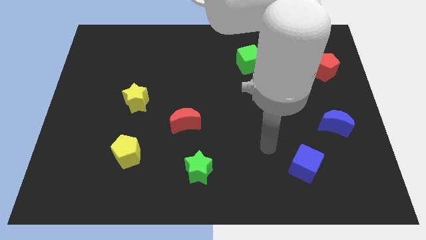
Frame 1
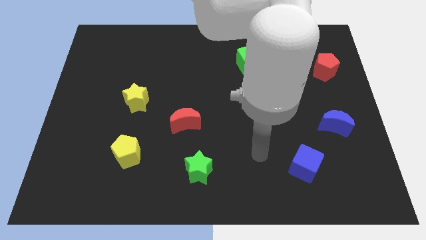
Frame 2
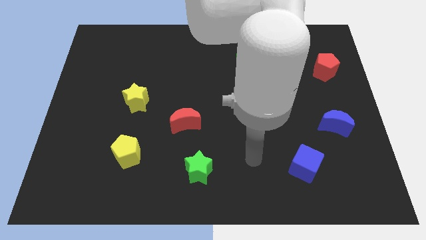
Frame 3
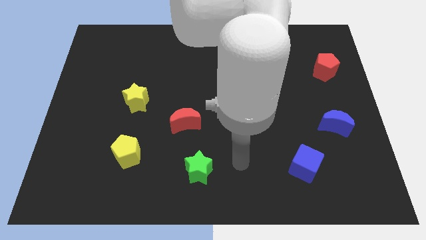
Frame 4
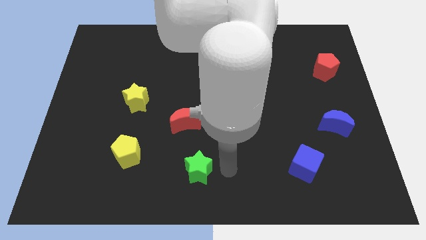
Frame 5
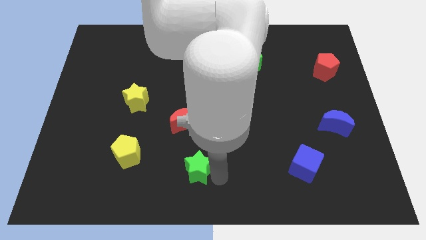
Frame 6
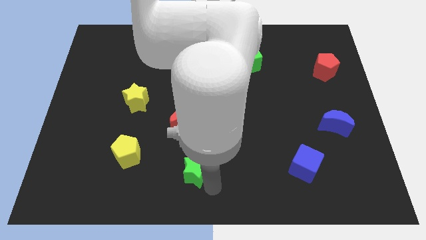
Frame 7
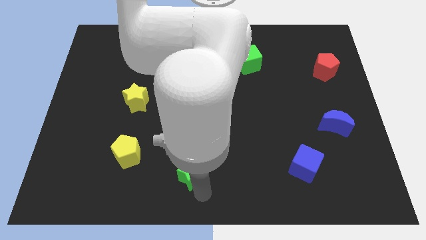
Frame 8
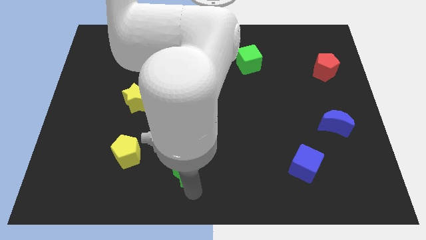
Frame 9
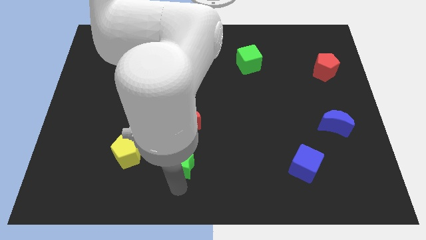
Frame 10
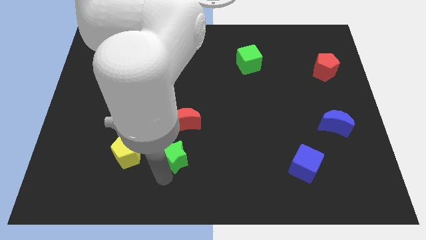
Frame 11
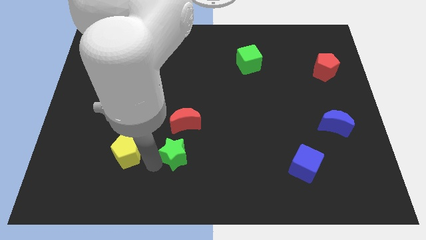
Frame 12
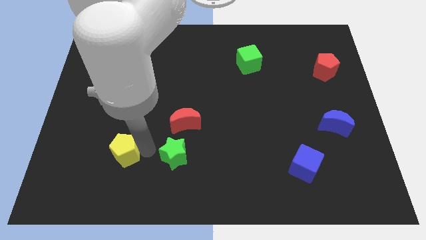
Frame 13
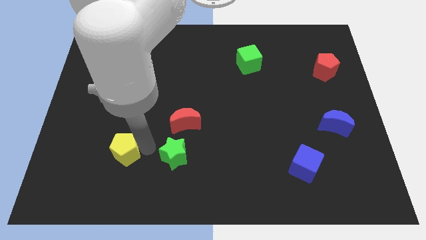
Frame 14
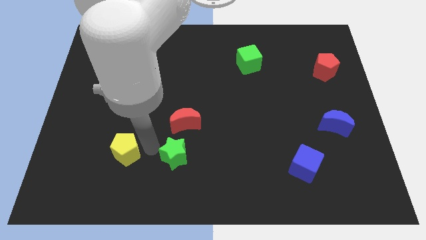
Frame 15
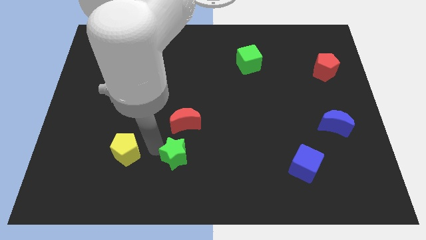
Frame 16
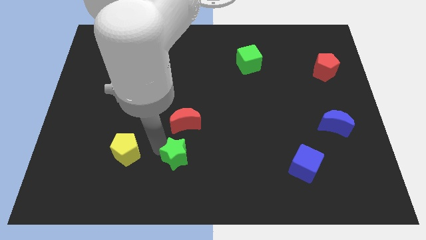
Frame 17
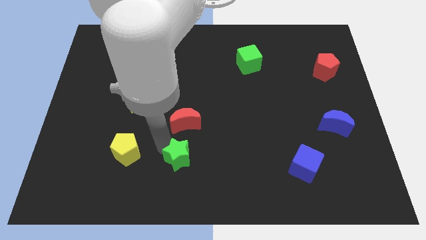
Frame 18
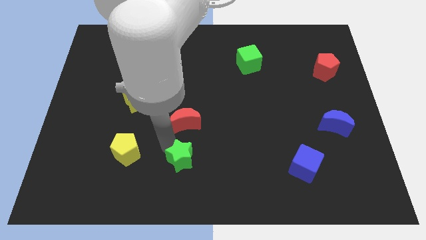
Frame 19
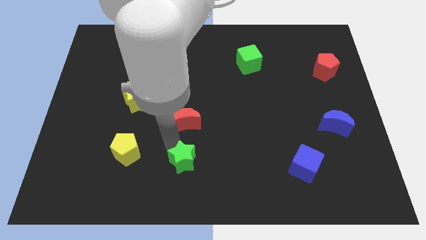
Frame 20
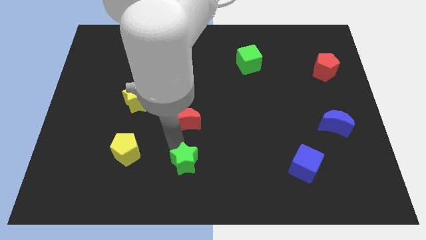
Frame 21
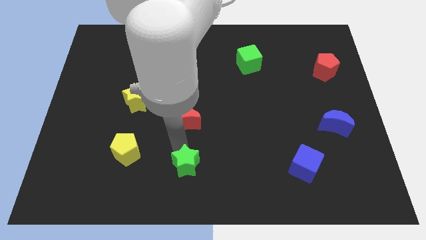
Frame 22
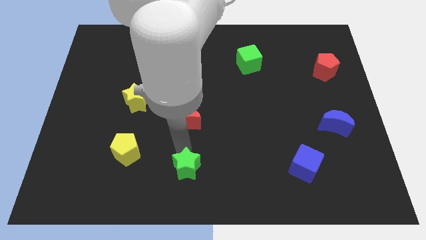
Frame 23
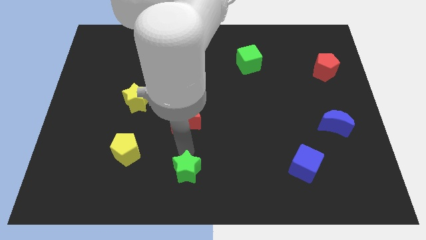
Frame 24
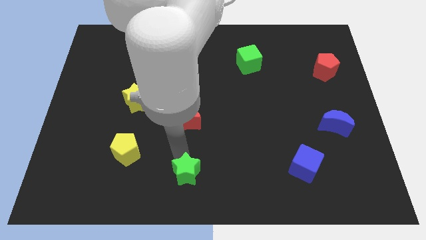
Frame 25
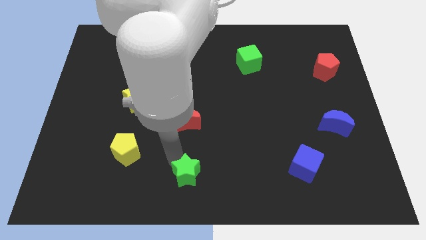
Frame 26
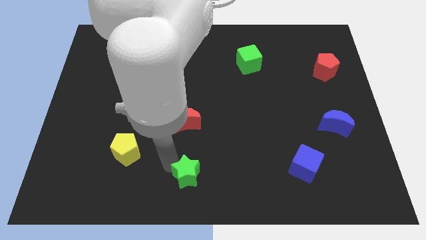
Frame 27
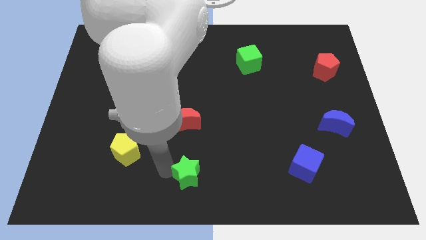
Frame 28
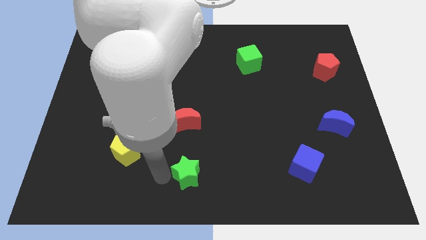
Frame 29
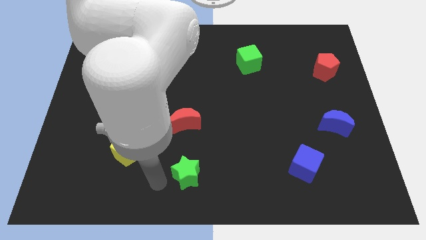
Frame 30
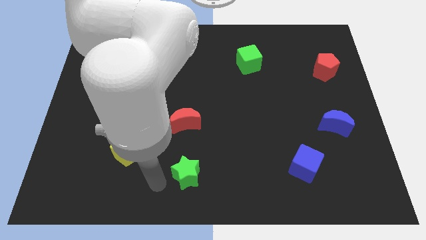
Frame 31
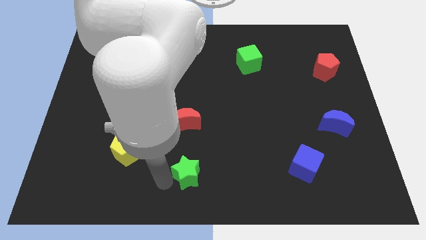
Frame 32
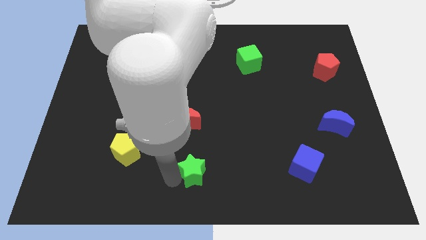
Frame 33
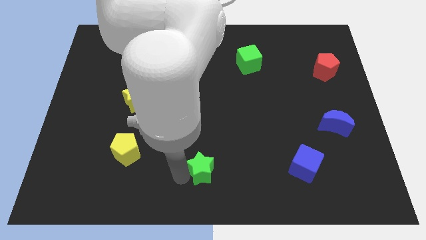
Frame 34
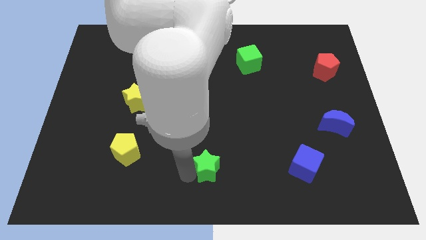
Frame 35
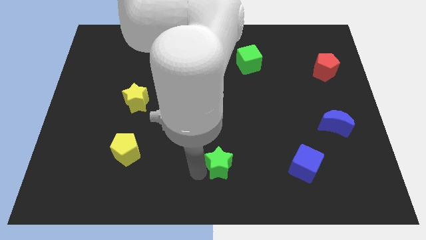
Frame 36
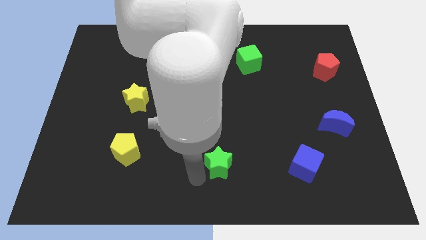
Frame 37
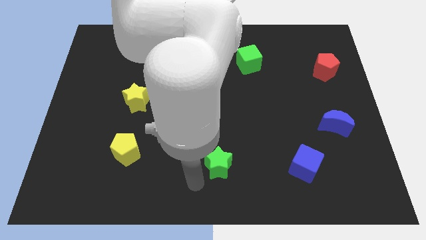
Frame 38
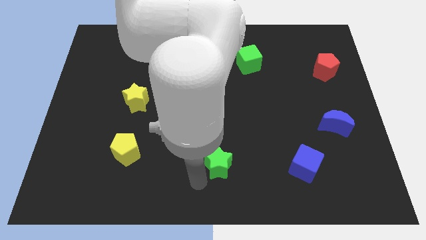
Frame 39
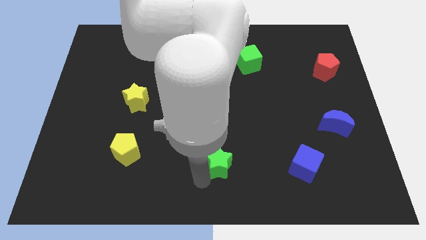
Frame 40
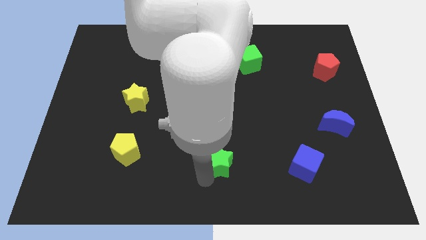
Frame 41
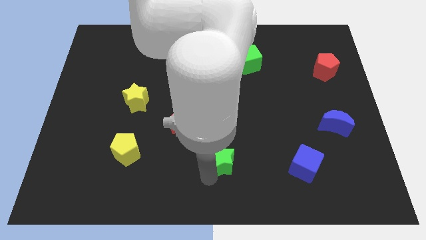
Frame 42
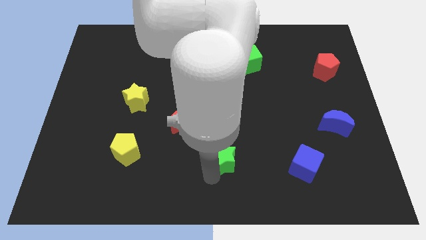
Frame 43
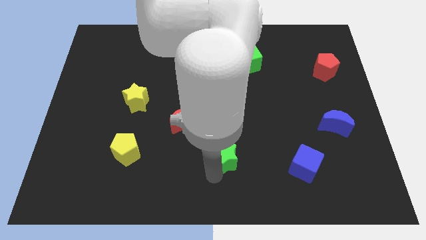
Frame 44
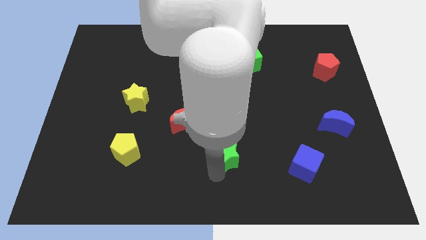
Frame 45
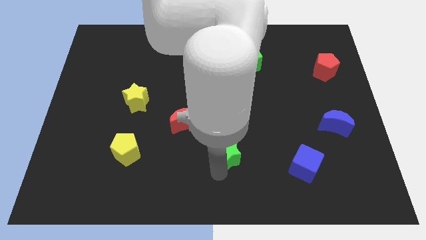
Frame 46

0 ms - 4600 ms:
slightly push the green star diagonally upwards and to the right

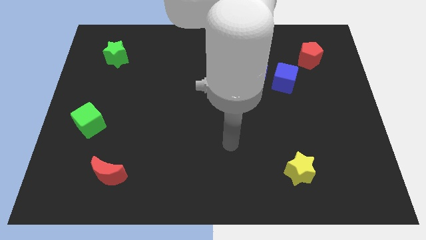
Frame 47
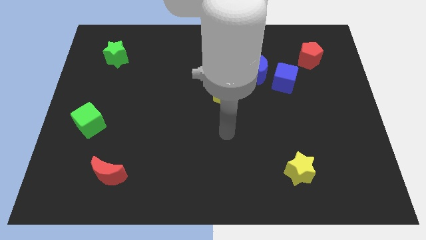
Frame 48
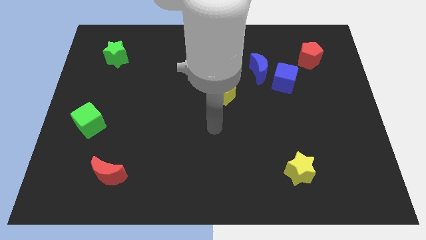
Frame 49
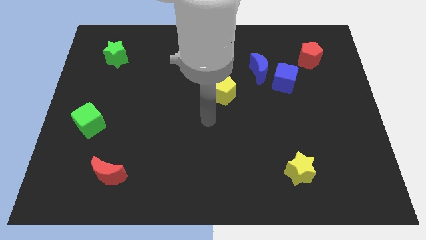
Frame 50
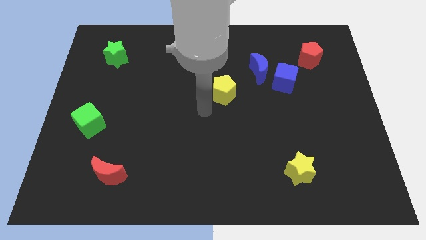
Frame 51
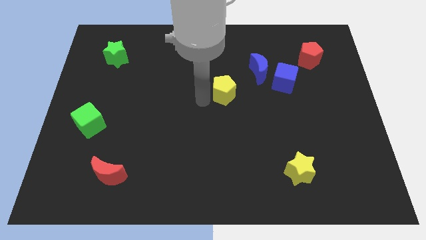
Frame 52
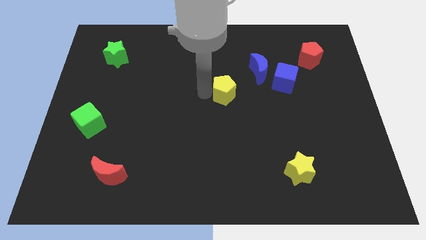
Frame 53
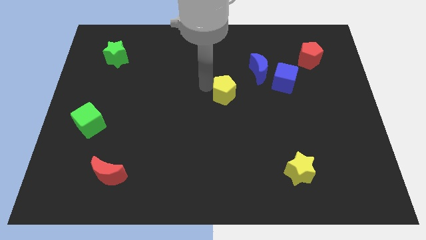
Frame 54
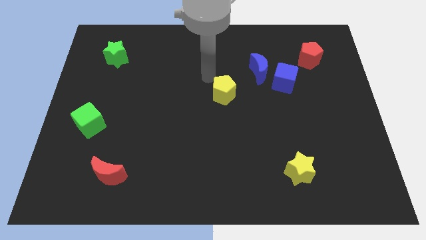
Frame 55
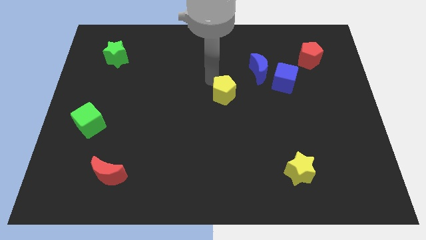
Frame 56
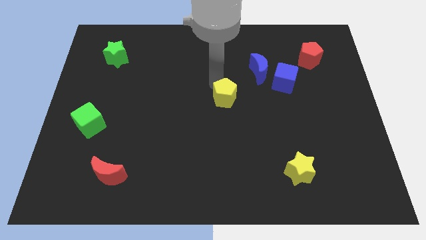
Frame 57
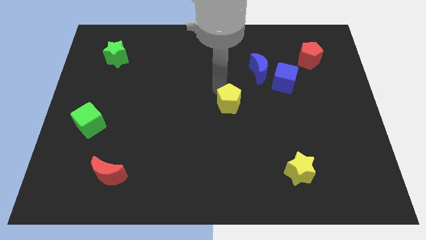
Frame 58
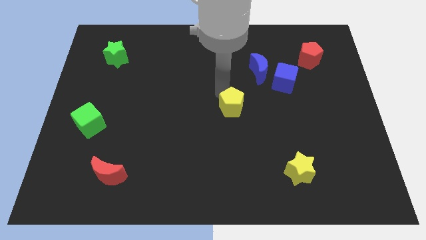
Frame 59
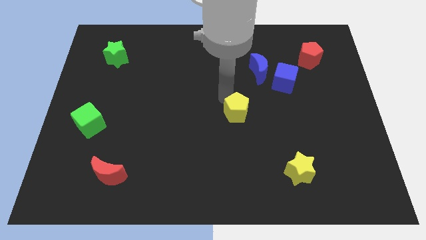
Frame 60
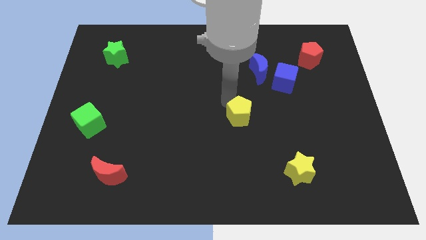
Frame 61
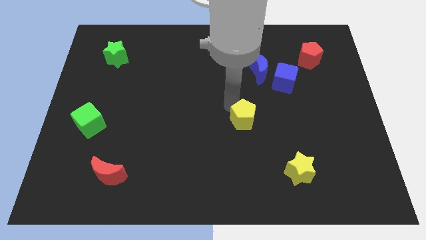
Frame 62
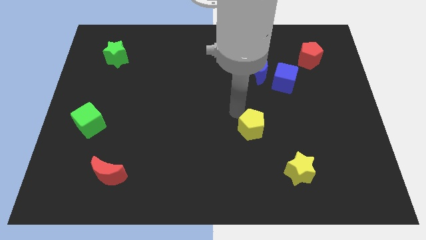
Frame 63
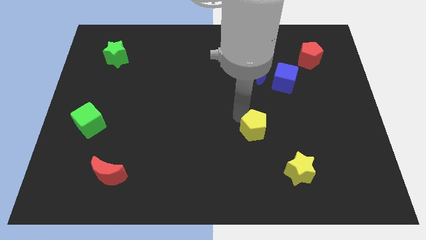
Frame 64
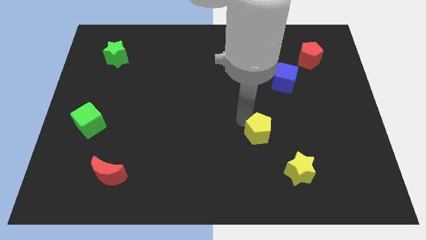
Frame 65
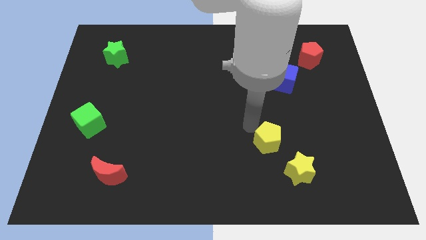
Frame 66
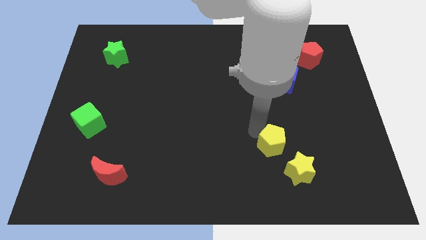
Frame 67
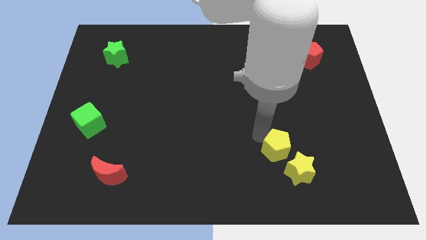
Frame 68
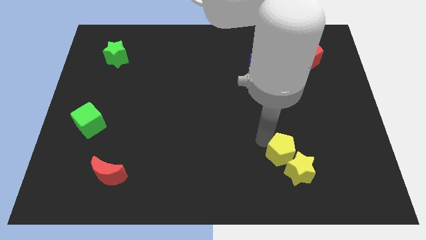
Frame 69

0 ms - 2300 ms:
slide the yellow pentagon down and to the right

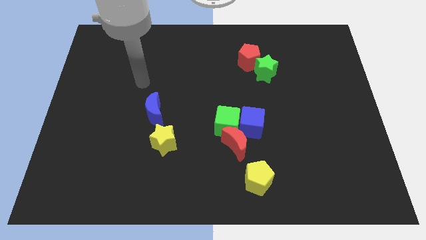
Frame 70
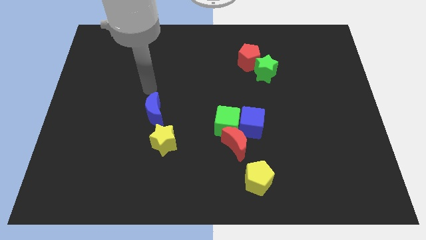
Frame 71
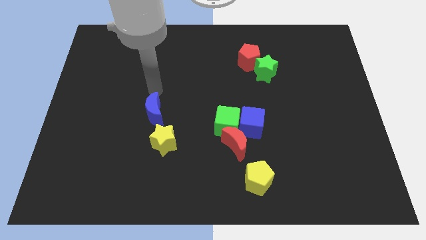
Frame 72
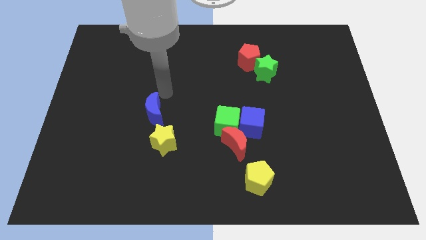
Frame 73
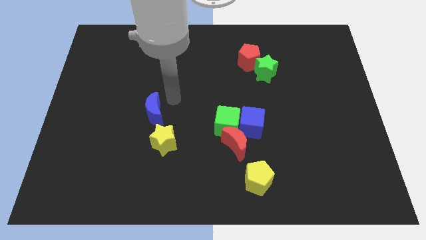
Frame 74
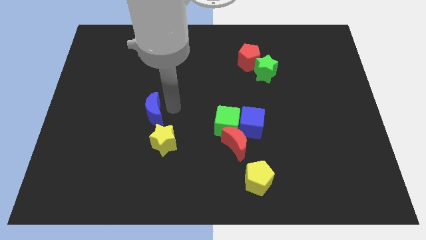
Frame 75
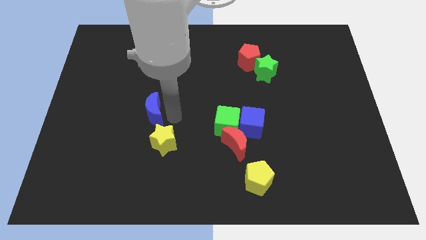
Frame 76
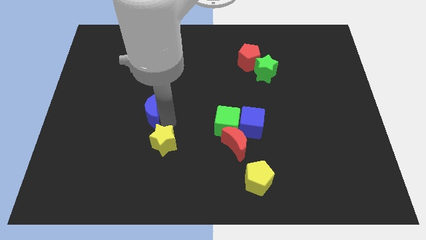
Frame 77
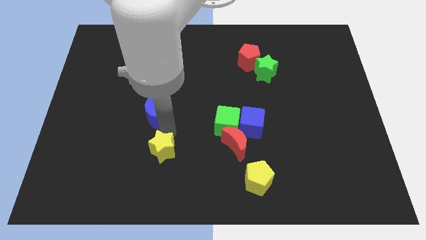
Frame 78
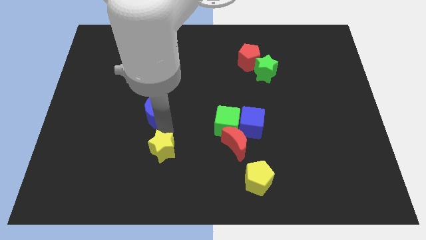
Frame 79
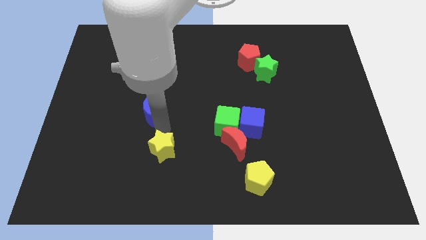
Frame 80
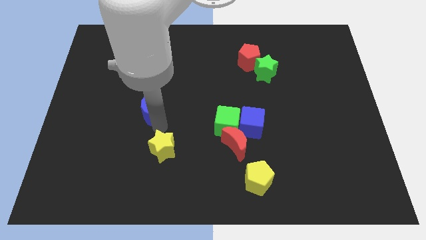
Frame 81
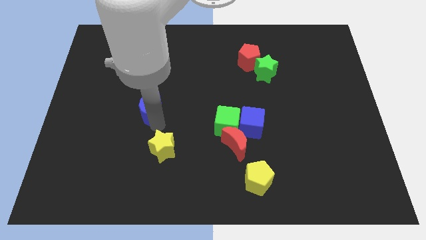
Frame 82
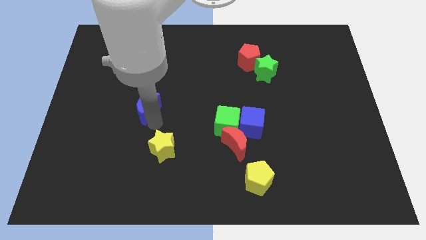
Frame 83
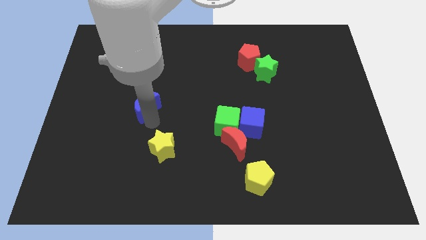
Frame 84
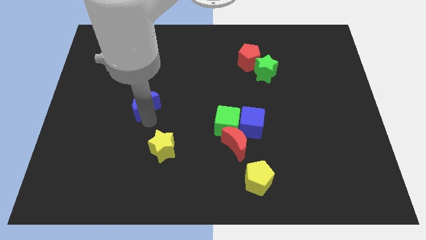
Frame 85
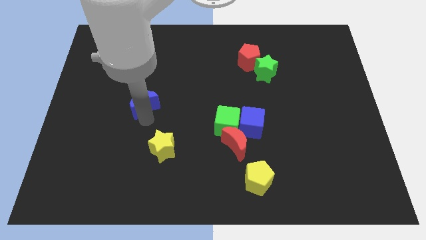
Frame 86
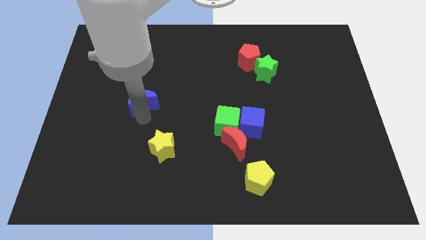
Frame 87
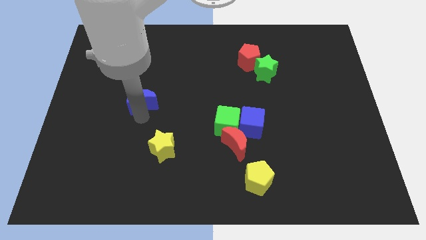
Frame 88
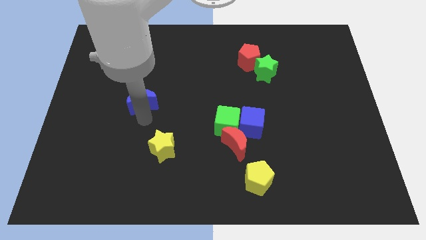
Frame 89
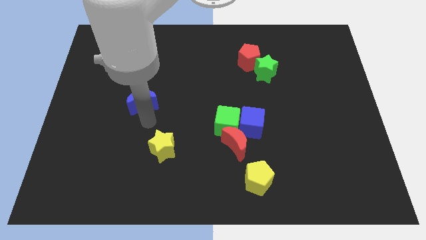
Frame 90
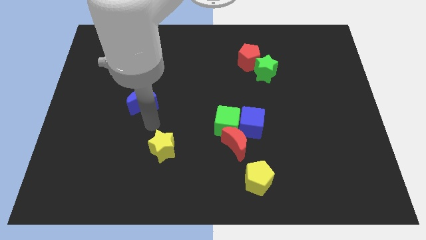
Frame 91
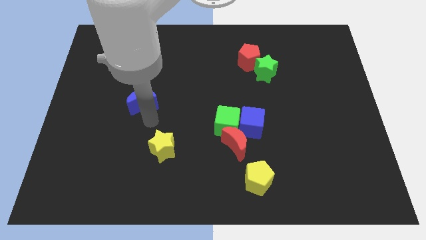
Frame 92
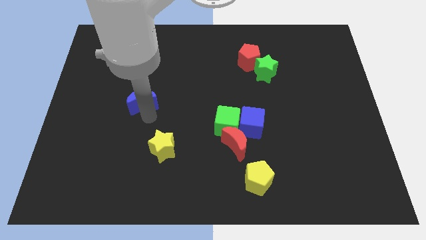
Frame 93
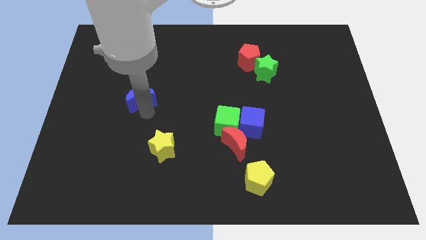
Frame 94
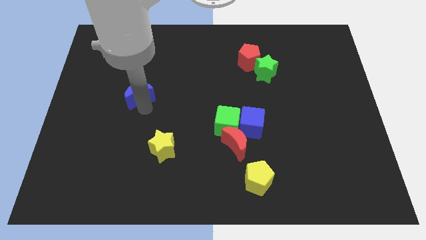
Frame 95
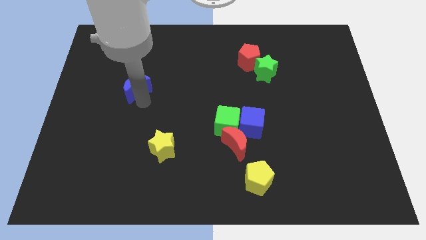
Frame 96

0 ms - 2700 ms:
slightly push the blue moon diagonally upwards and to the left
